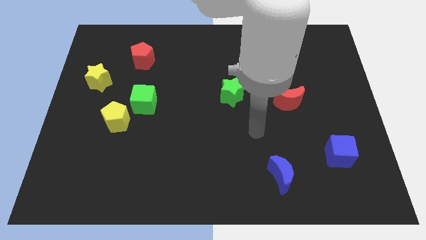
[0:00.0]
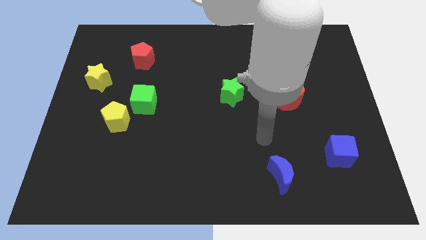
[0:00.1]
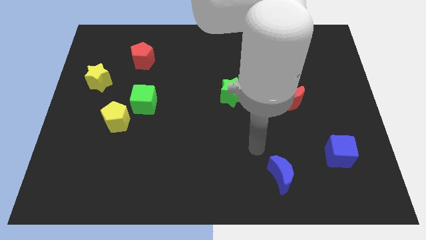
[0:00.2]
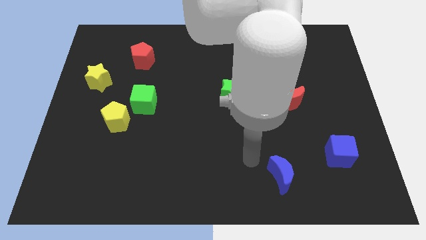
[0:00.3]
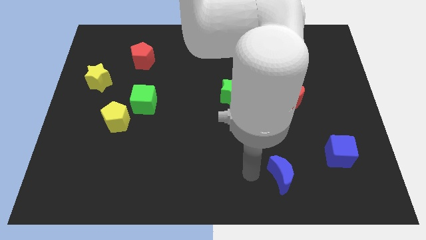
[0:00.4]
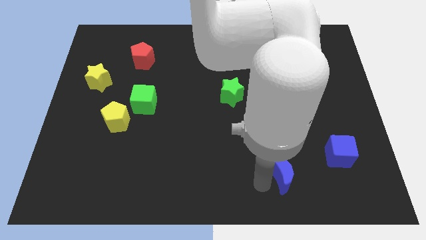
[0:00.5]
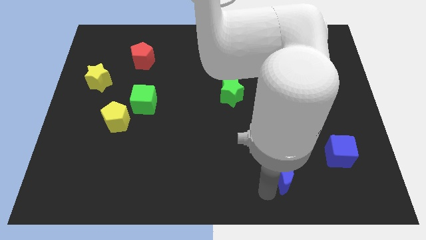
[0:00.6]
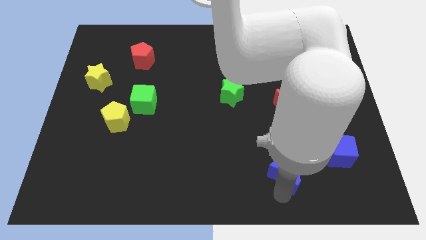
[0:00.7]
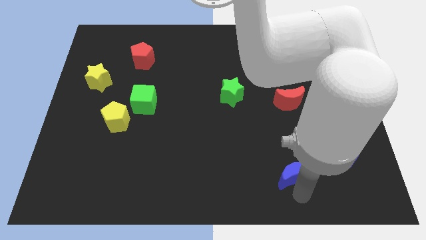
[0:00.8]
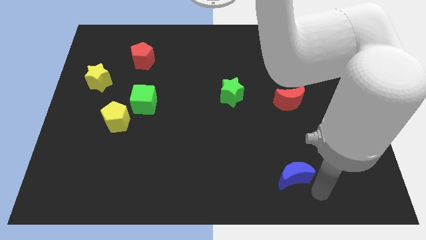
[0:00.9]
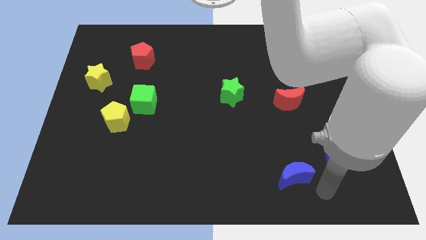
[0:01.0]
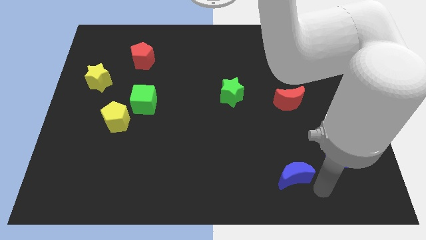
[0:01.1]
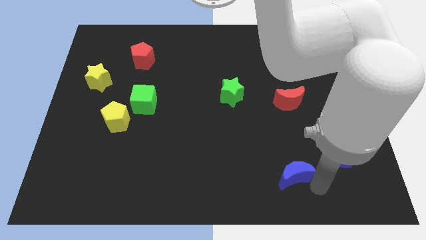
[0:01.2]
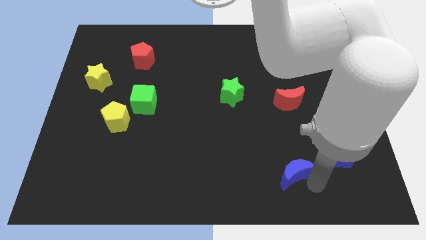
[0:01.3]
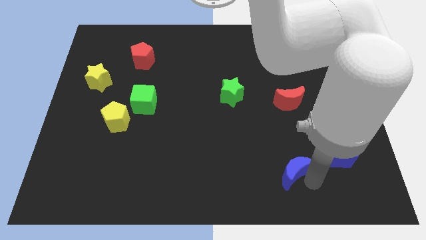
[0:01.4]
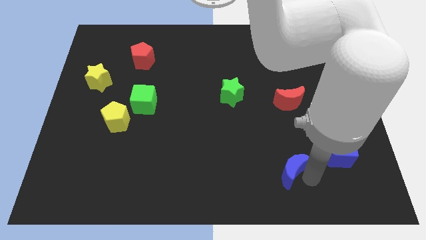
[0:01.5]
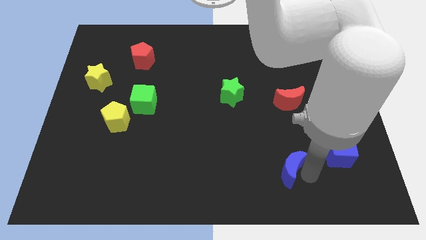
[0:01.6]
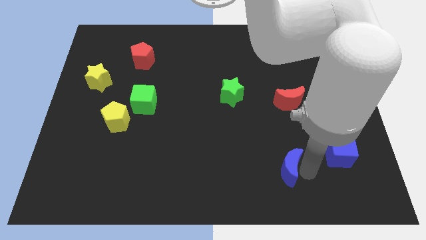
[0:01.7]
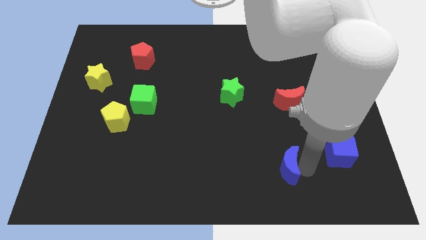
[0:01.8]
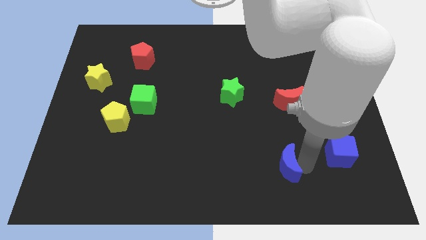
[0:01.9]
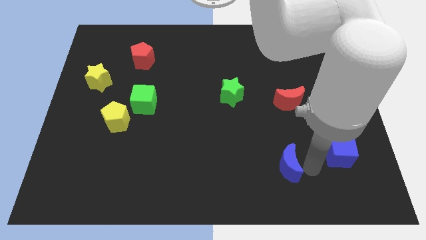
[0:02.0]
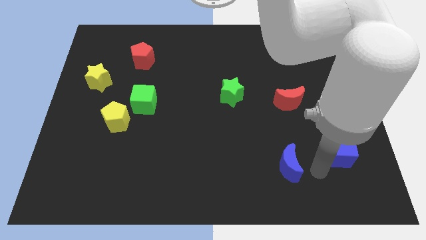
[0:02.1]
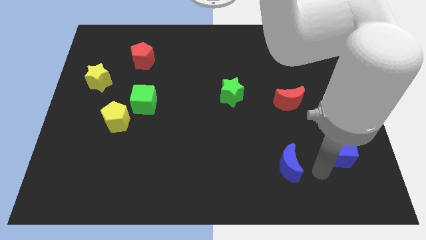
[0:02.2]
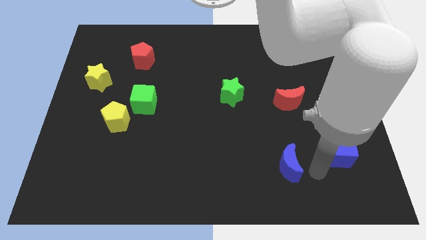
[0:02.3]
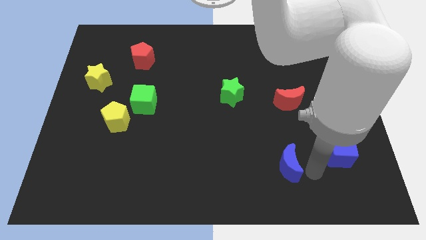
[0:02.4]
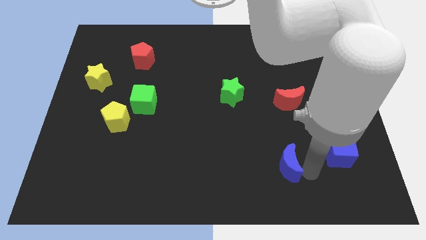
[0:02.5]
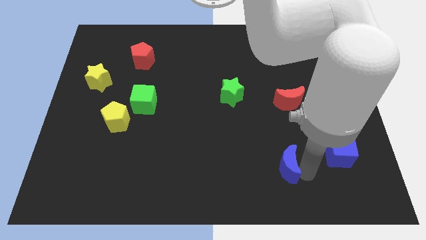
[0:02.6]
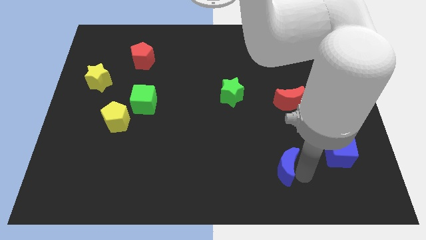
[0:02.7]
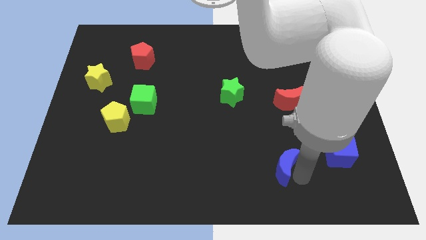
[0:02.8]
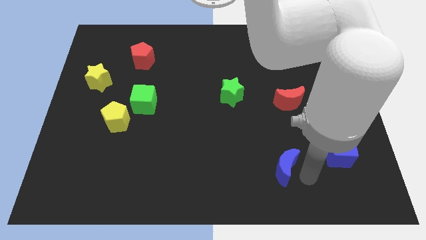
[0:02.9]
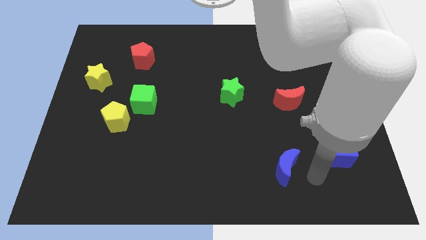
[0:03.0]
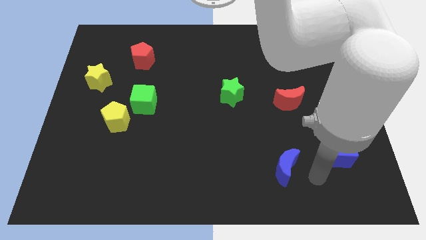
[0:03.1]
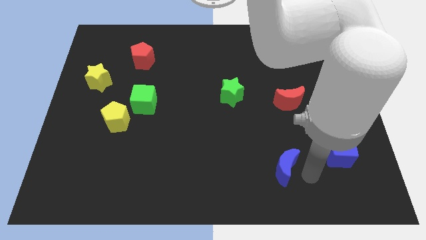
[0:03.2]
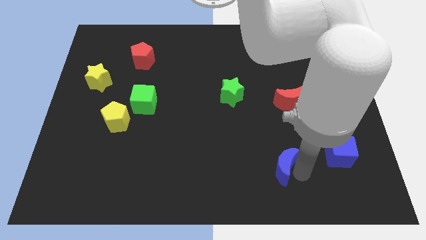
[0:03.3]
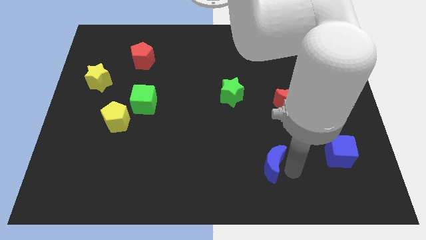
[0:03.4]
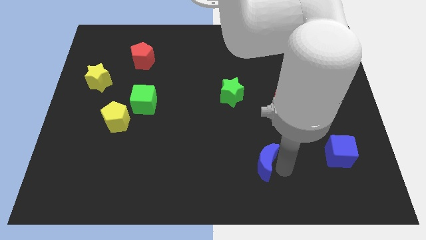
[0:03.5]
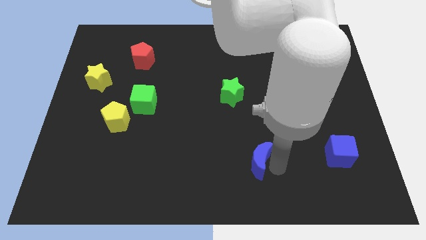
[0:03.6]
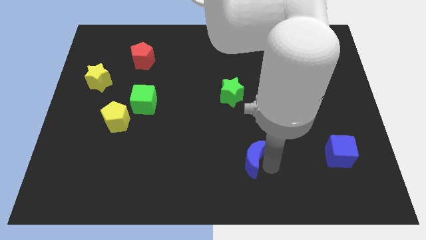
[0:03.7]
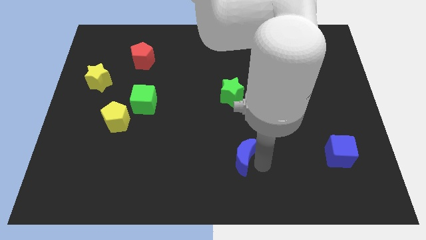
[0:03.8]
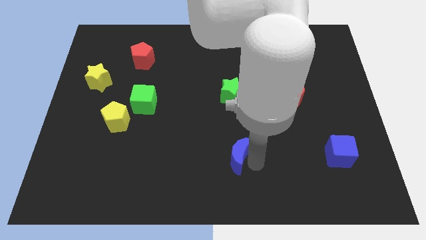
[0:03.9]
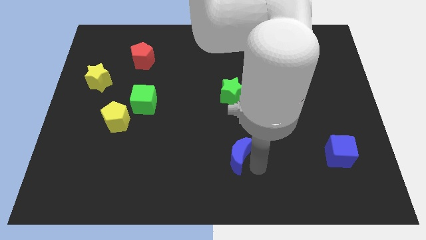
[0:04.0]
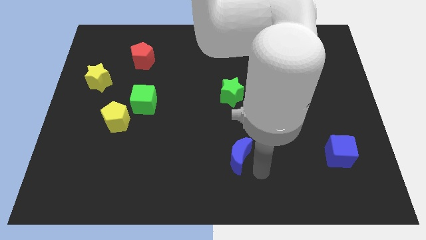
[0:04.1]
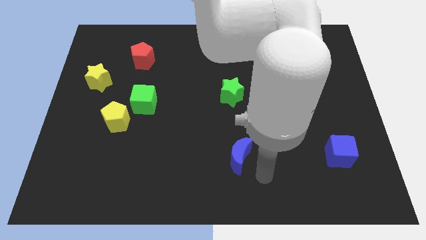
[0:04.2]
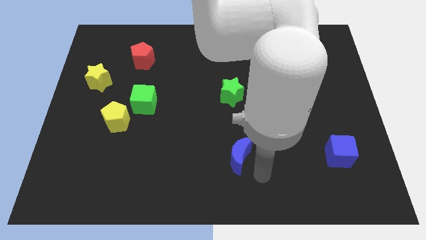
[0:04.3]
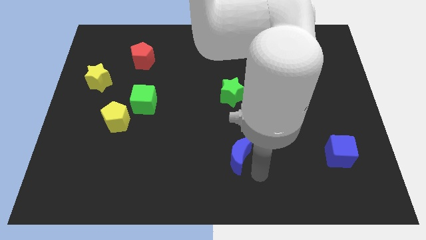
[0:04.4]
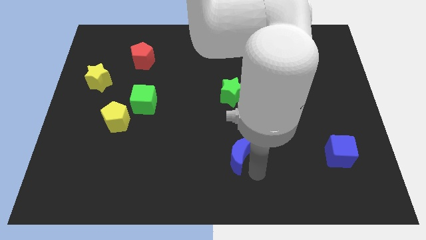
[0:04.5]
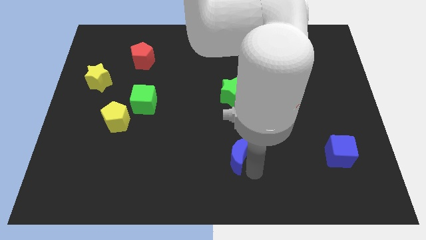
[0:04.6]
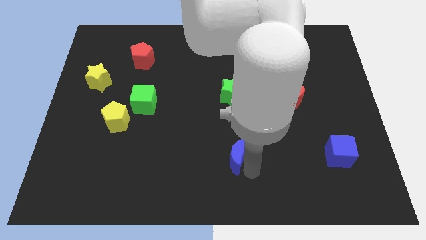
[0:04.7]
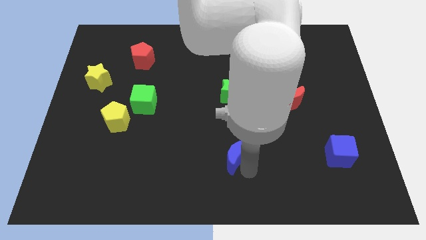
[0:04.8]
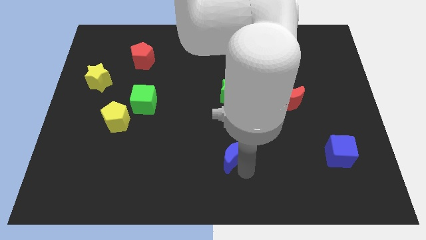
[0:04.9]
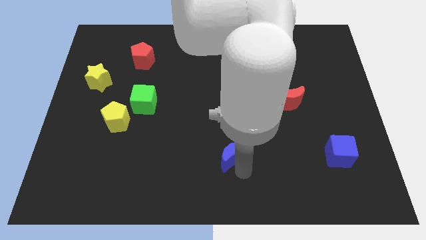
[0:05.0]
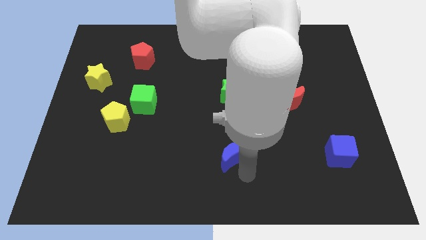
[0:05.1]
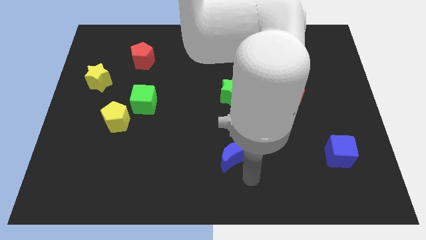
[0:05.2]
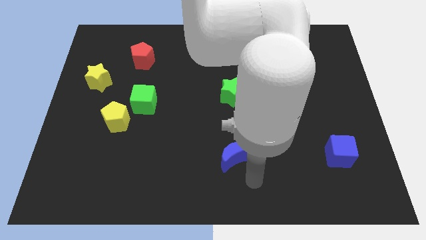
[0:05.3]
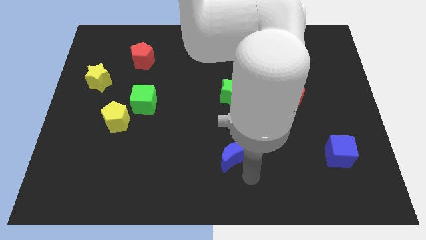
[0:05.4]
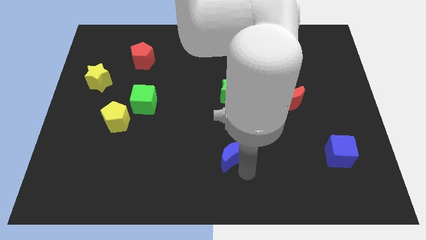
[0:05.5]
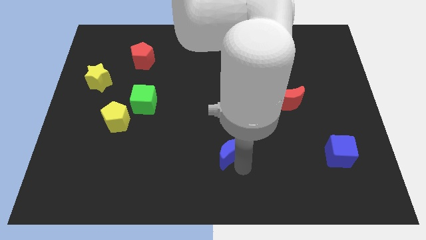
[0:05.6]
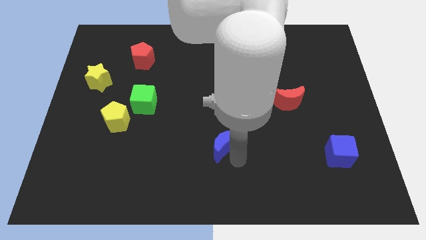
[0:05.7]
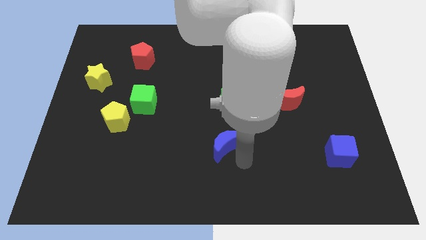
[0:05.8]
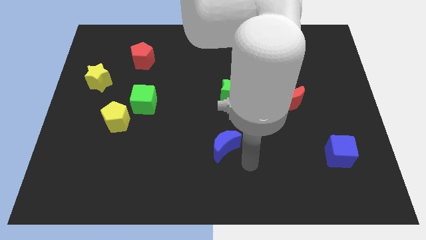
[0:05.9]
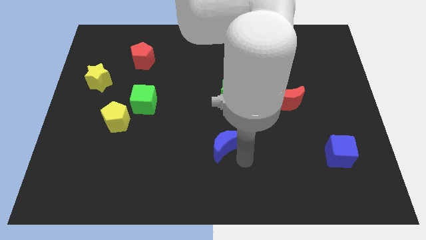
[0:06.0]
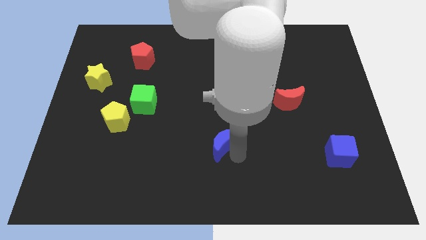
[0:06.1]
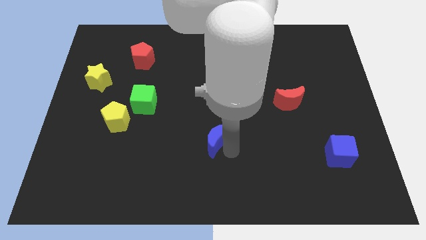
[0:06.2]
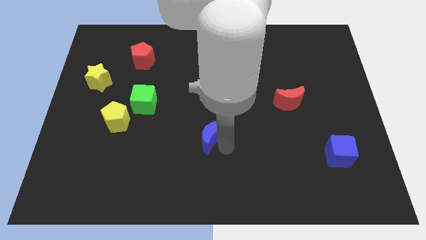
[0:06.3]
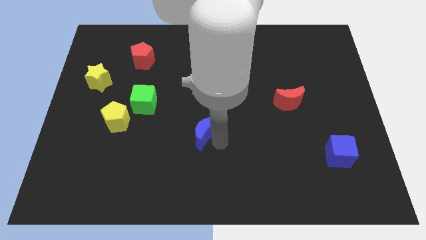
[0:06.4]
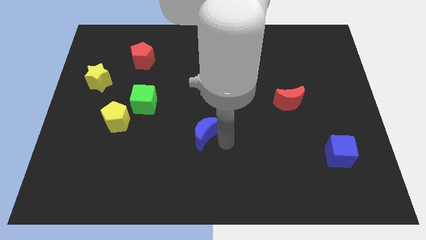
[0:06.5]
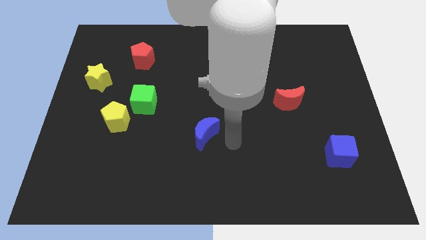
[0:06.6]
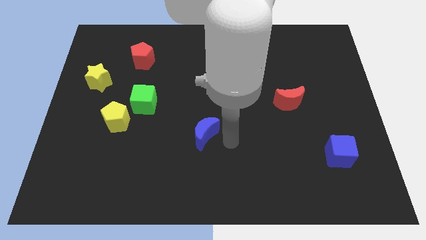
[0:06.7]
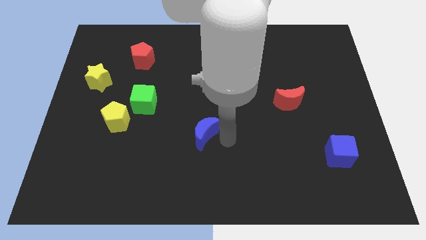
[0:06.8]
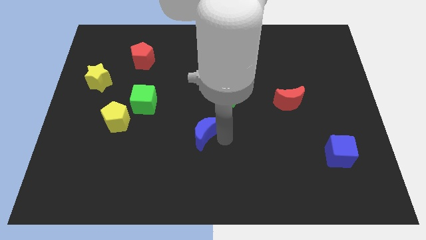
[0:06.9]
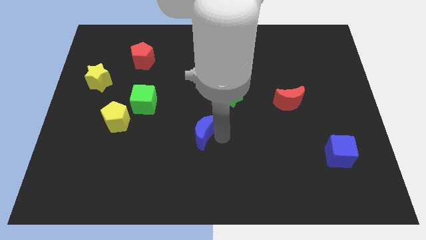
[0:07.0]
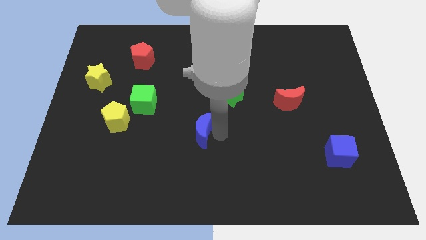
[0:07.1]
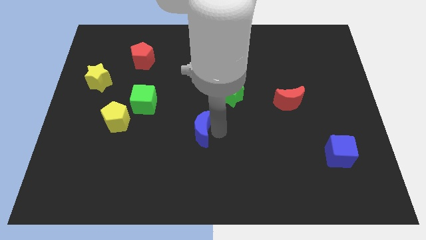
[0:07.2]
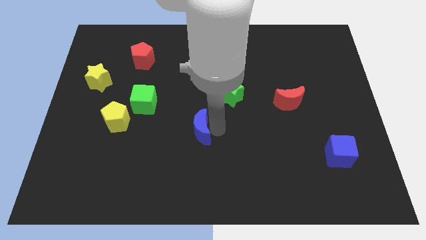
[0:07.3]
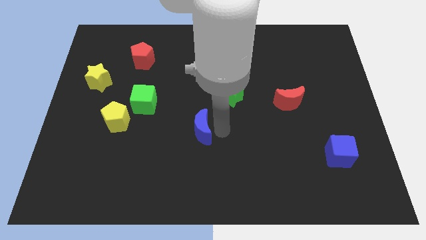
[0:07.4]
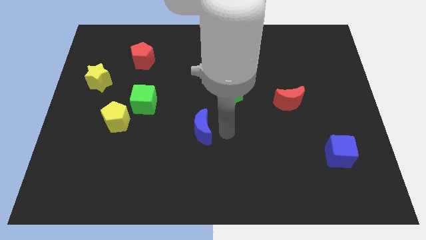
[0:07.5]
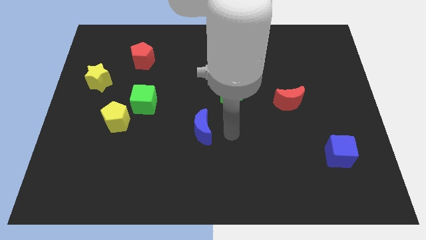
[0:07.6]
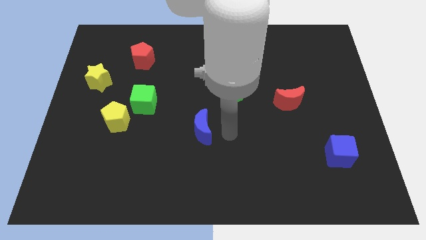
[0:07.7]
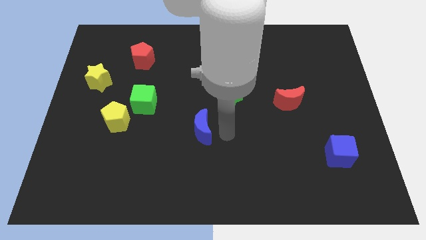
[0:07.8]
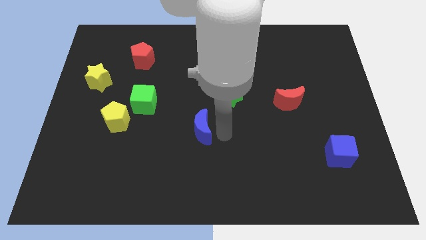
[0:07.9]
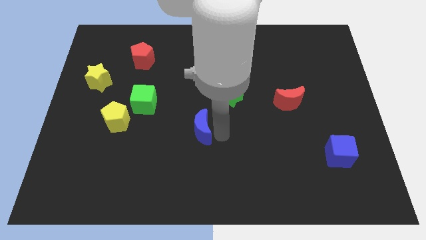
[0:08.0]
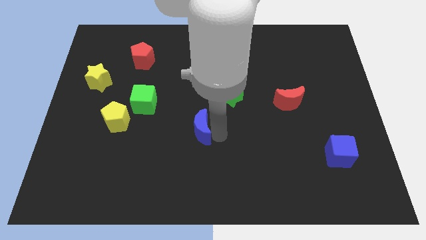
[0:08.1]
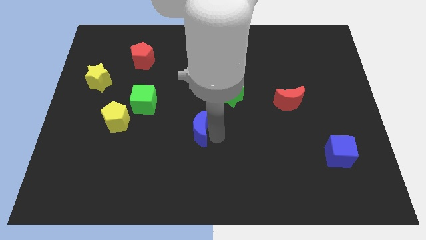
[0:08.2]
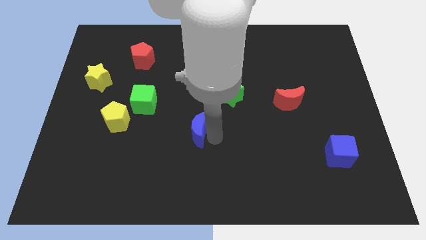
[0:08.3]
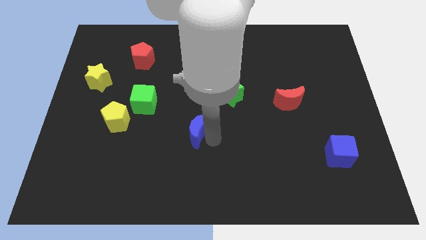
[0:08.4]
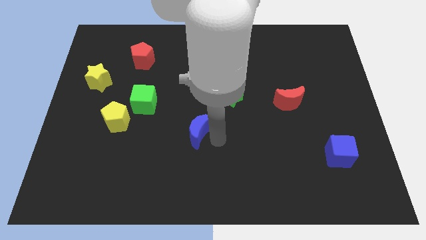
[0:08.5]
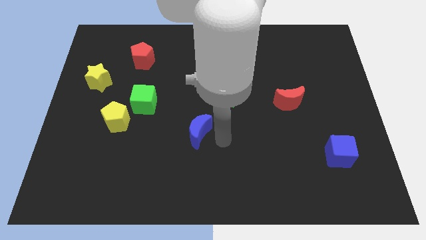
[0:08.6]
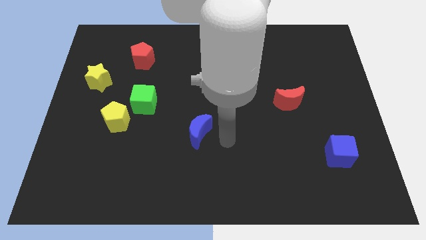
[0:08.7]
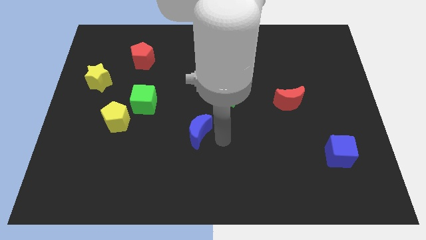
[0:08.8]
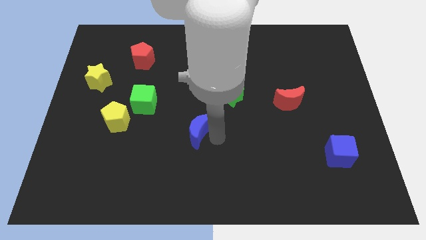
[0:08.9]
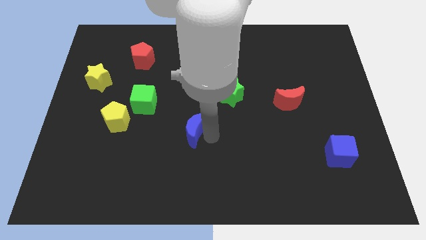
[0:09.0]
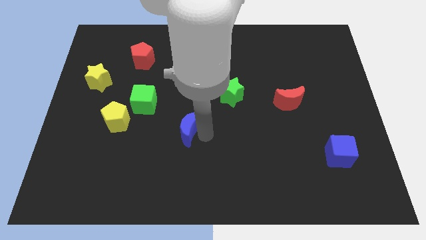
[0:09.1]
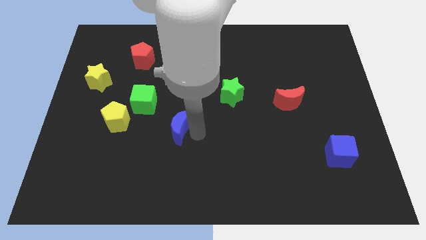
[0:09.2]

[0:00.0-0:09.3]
put the blue moon to the bottom right of the green cube
